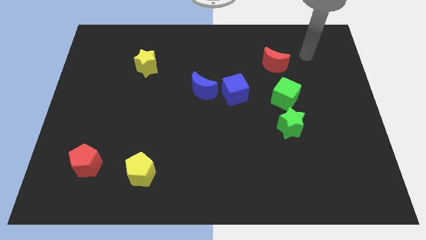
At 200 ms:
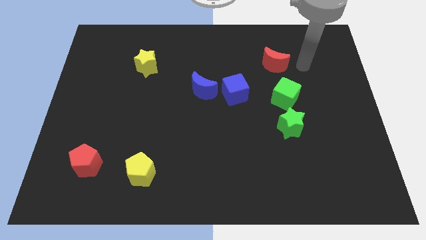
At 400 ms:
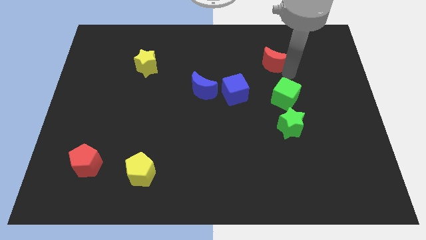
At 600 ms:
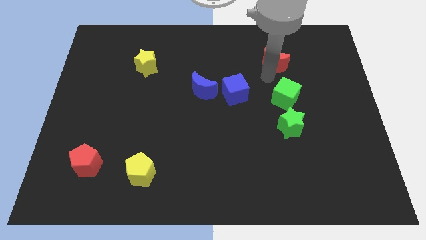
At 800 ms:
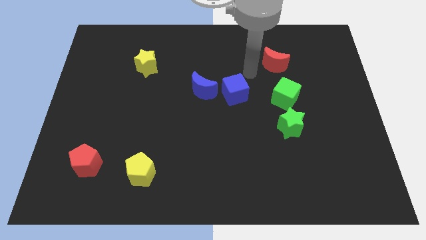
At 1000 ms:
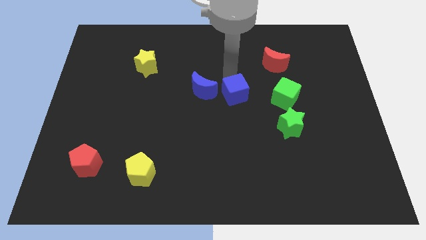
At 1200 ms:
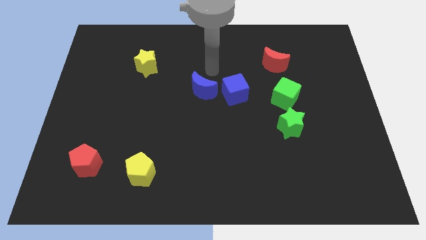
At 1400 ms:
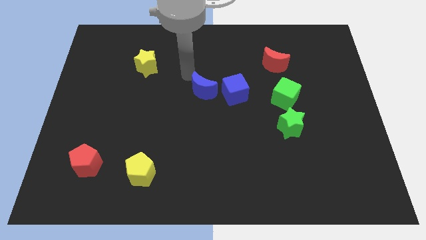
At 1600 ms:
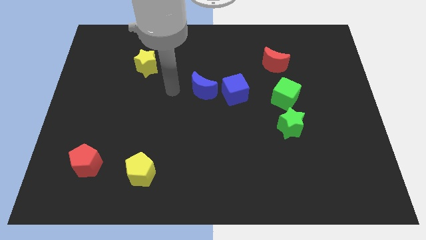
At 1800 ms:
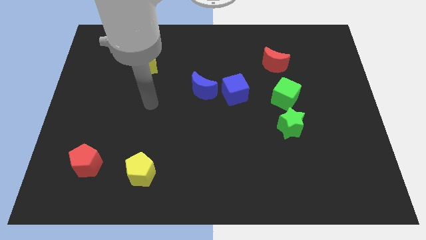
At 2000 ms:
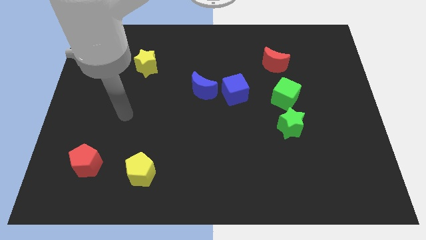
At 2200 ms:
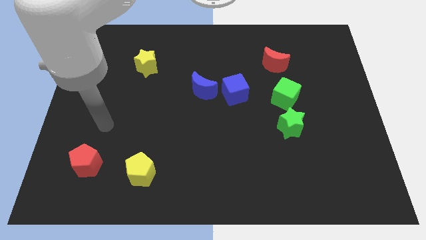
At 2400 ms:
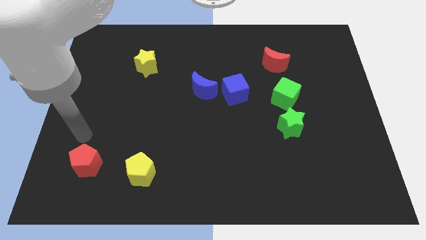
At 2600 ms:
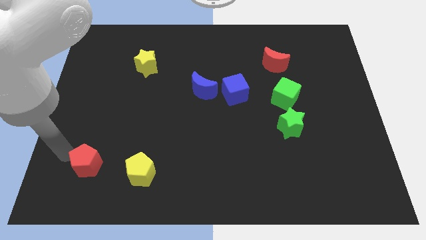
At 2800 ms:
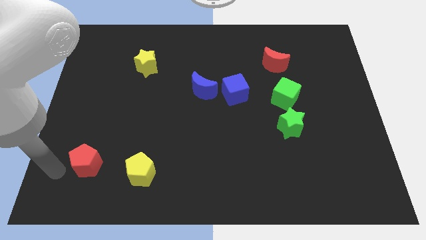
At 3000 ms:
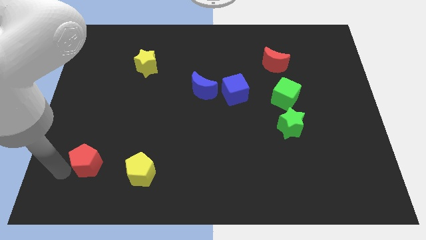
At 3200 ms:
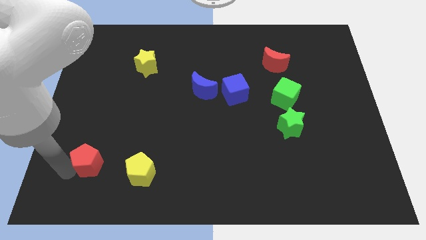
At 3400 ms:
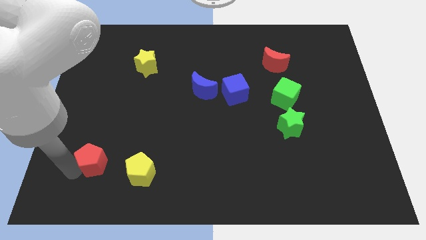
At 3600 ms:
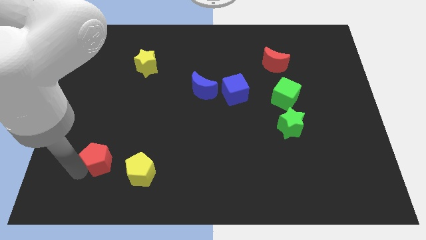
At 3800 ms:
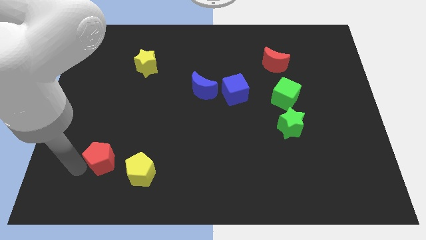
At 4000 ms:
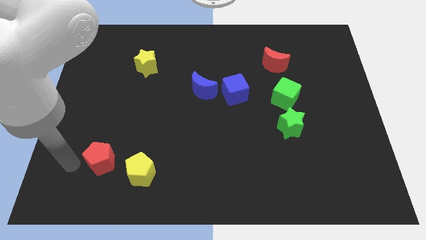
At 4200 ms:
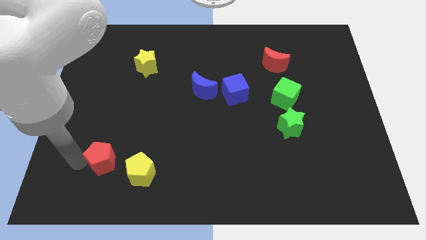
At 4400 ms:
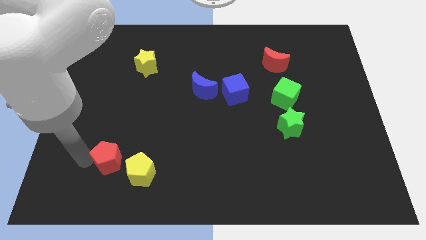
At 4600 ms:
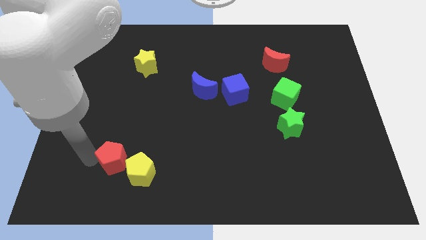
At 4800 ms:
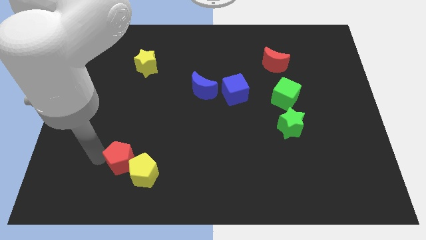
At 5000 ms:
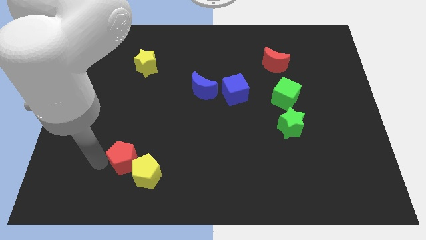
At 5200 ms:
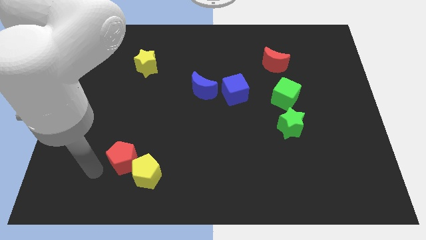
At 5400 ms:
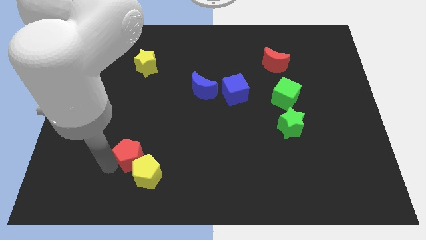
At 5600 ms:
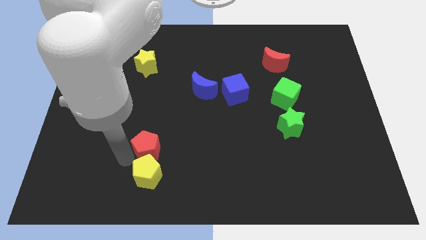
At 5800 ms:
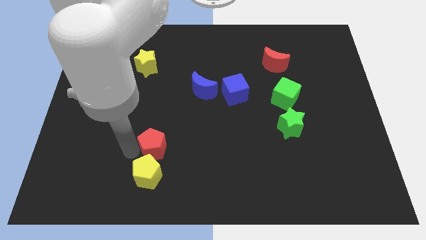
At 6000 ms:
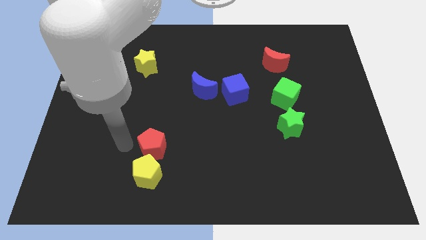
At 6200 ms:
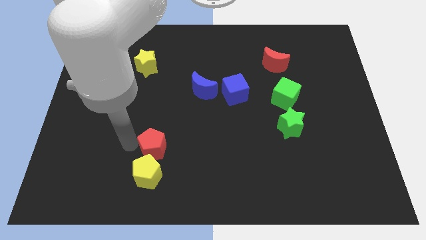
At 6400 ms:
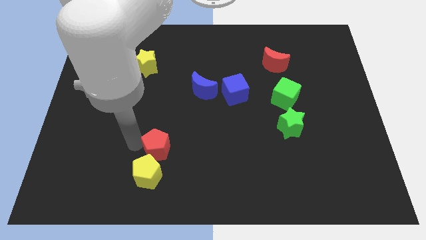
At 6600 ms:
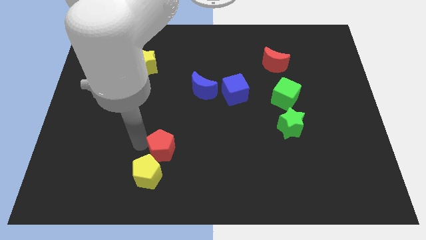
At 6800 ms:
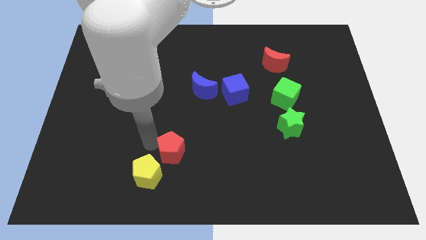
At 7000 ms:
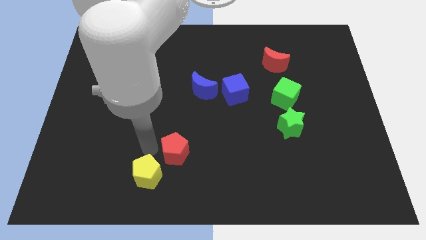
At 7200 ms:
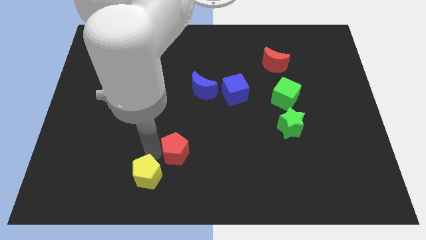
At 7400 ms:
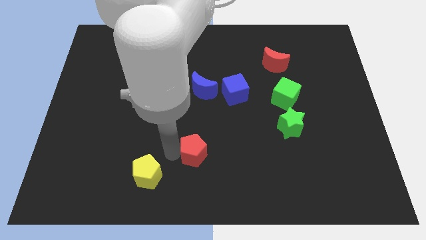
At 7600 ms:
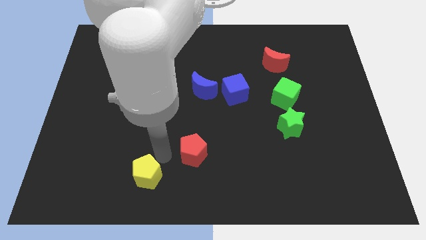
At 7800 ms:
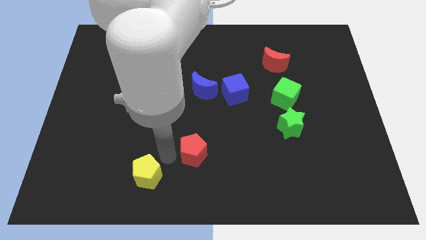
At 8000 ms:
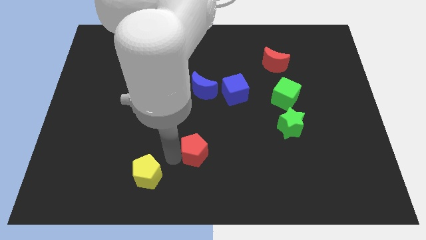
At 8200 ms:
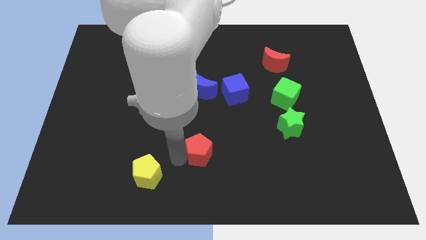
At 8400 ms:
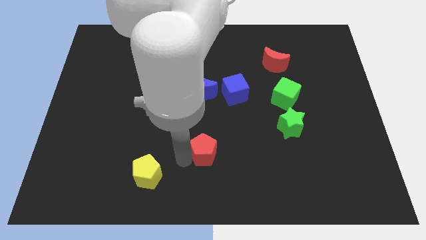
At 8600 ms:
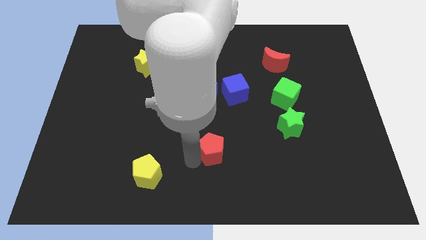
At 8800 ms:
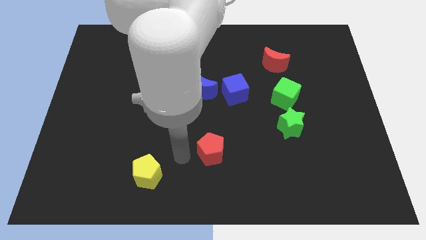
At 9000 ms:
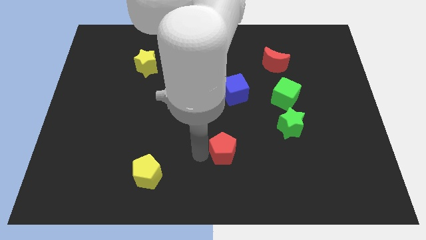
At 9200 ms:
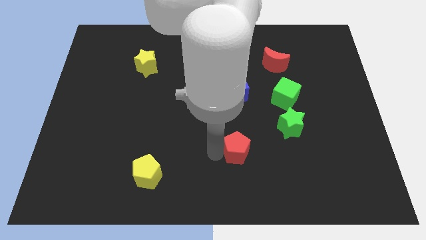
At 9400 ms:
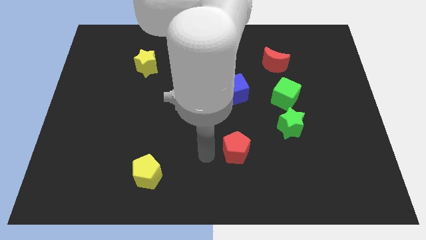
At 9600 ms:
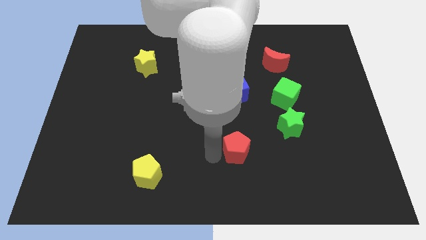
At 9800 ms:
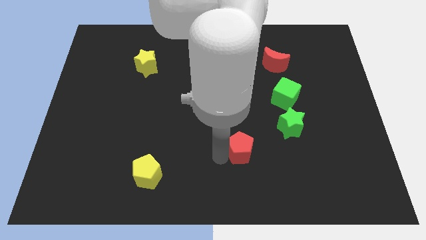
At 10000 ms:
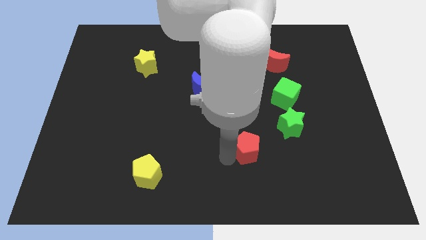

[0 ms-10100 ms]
push the red pentagon diagonally down and to the left of the green star

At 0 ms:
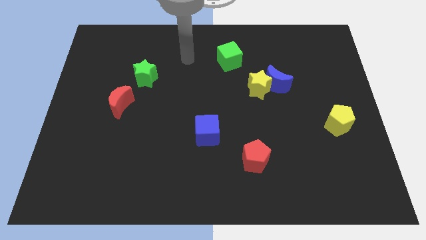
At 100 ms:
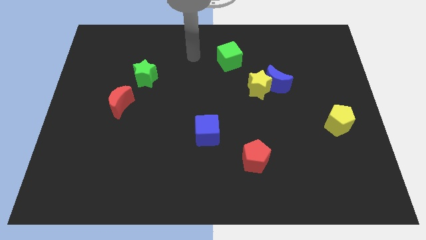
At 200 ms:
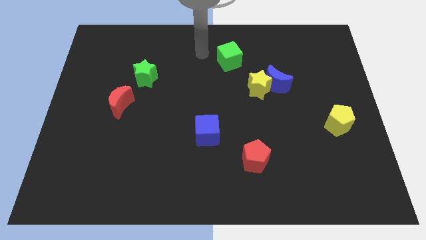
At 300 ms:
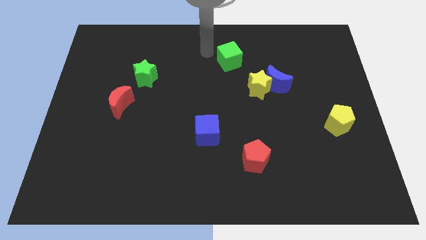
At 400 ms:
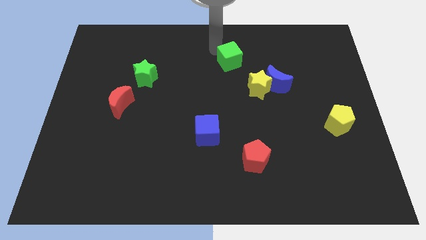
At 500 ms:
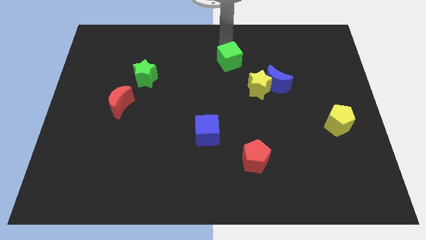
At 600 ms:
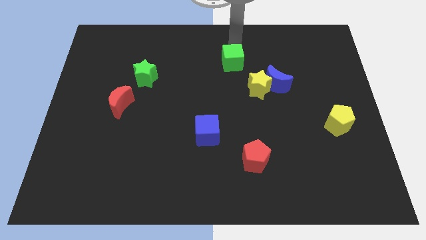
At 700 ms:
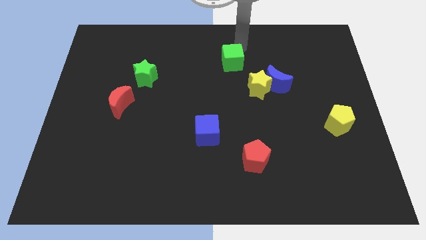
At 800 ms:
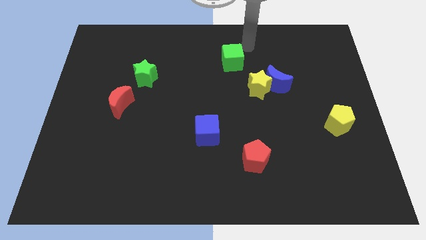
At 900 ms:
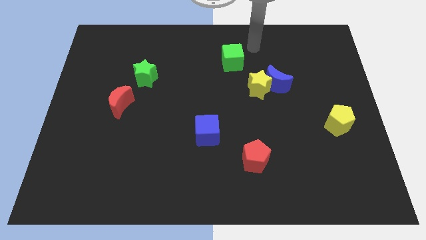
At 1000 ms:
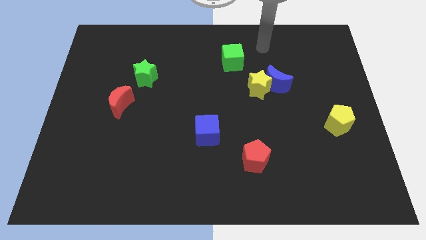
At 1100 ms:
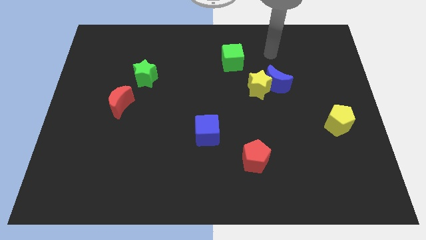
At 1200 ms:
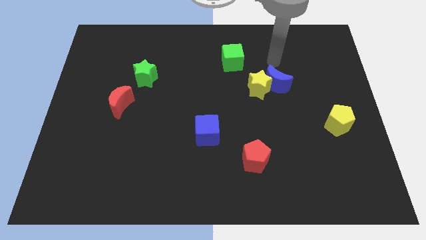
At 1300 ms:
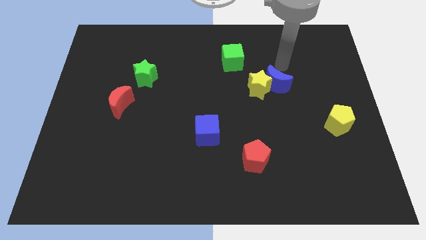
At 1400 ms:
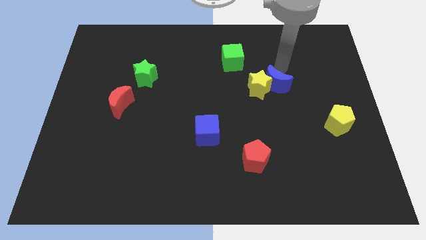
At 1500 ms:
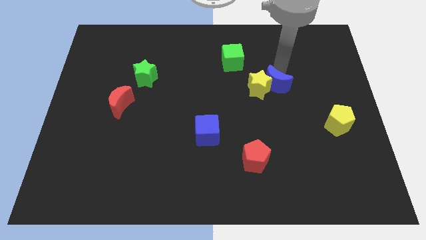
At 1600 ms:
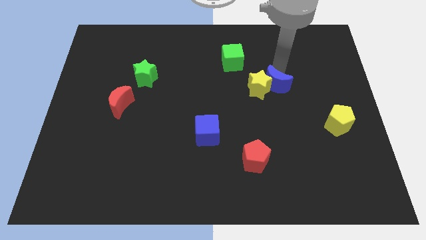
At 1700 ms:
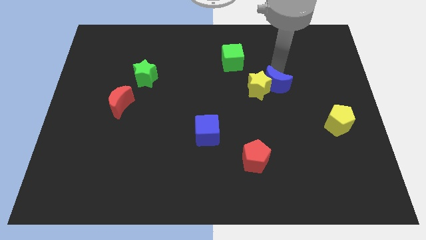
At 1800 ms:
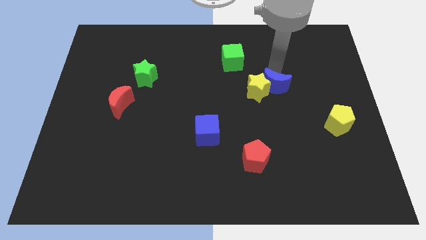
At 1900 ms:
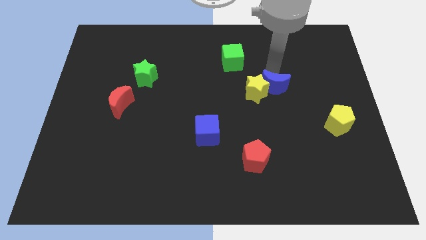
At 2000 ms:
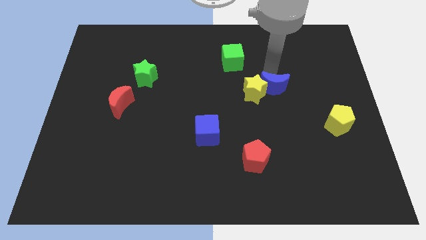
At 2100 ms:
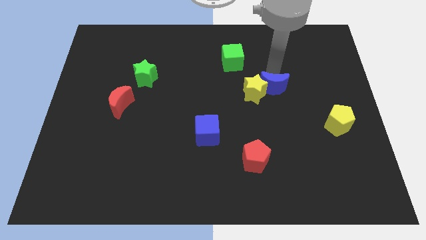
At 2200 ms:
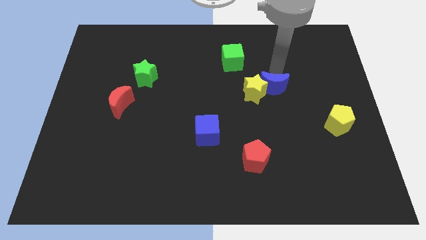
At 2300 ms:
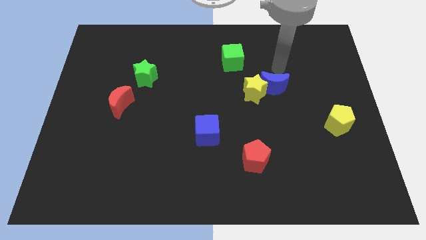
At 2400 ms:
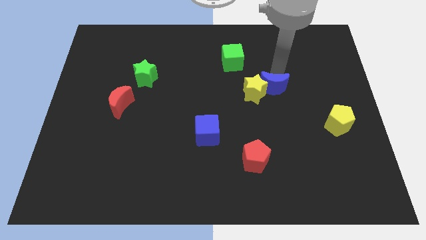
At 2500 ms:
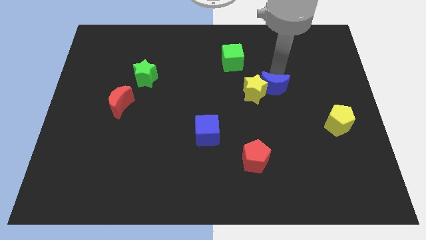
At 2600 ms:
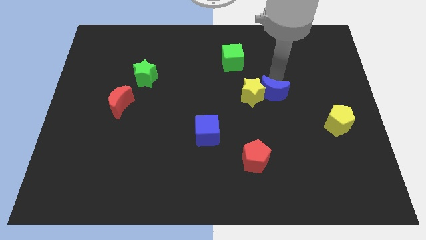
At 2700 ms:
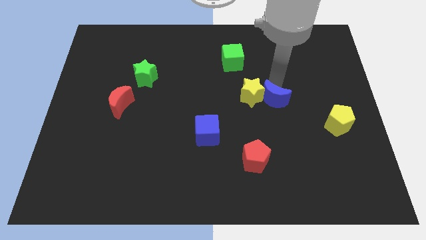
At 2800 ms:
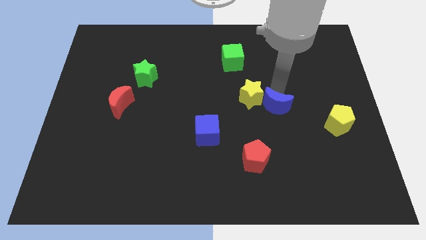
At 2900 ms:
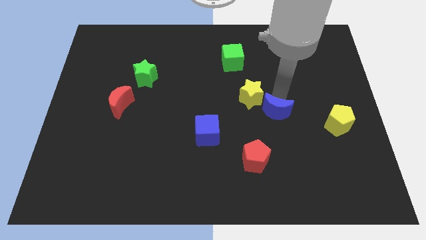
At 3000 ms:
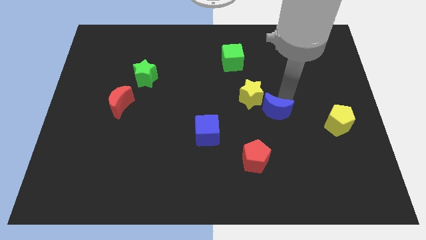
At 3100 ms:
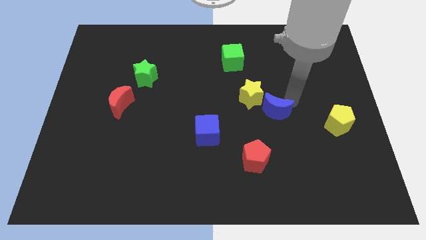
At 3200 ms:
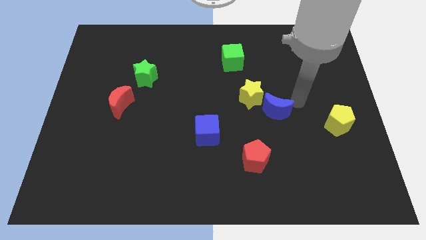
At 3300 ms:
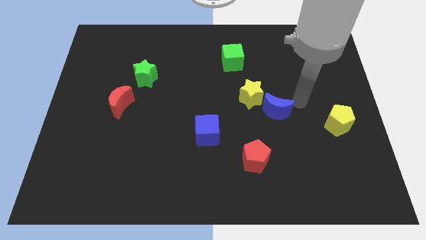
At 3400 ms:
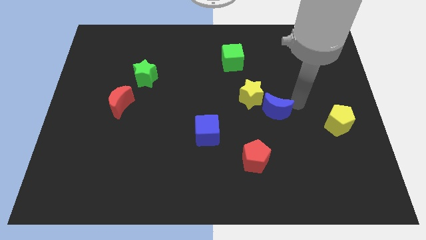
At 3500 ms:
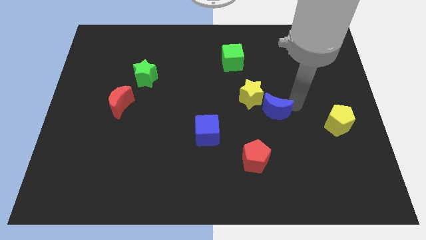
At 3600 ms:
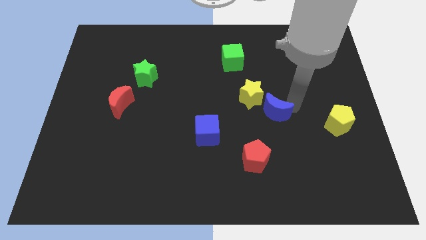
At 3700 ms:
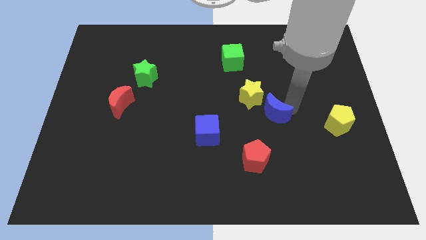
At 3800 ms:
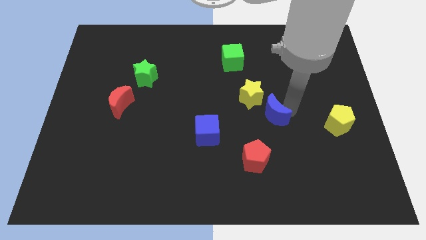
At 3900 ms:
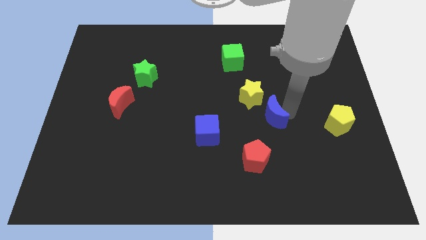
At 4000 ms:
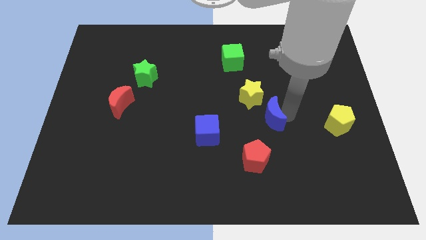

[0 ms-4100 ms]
move the blue moon to the top side of the red pentagon
